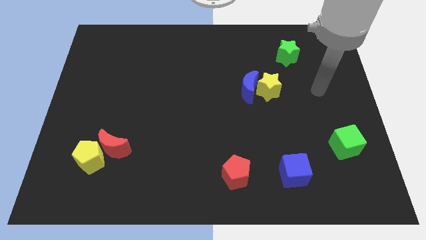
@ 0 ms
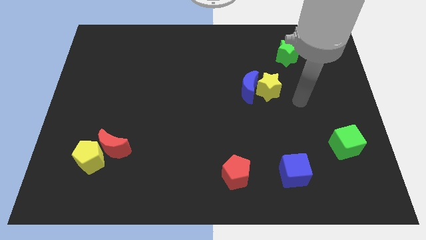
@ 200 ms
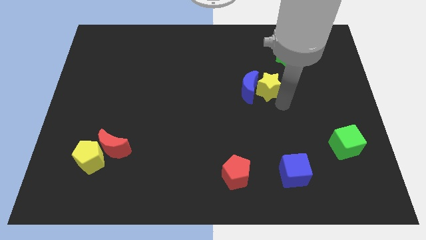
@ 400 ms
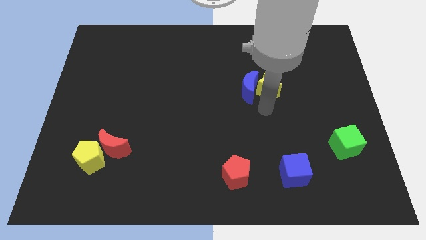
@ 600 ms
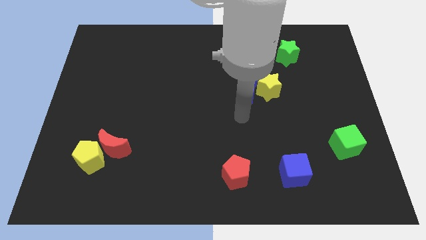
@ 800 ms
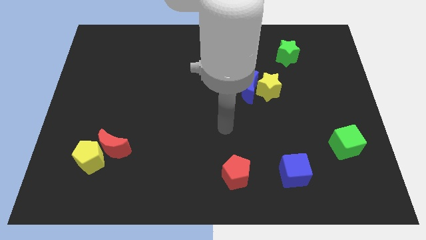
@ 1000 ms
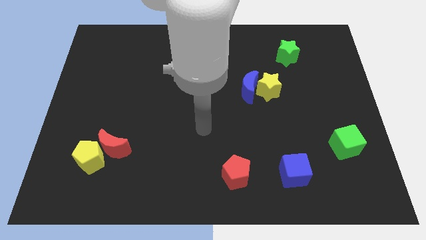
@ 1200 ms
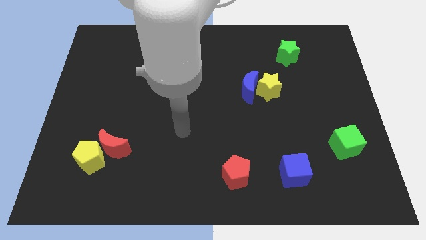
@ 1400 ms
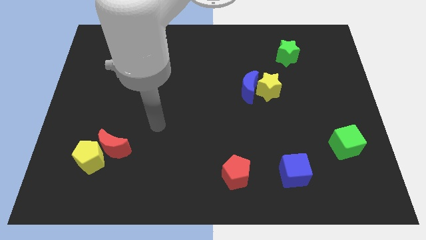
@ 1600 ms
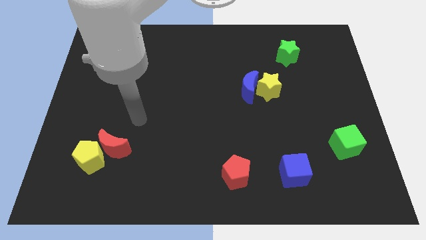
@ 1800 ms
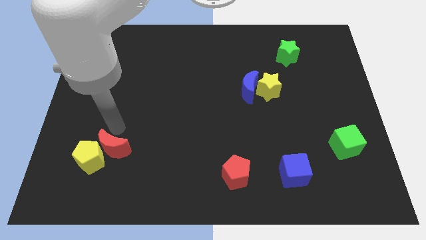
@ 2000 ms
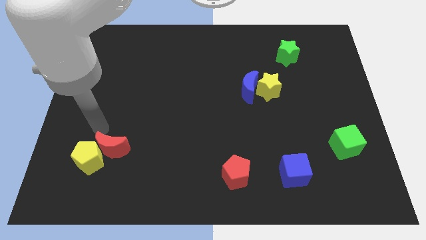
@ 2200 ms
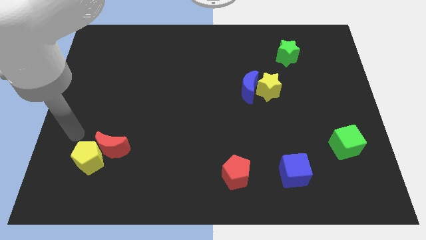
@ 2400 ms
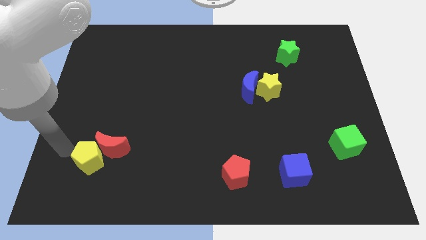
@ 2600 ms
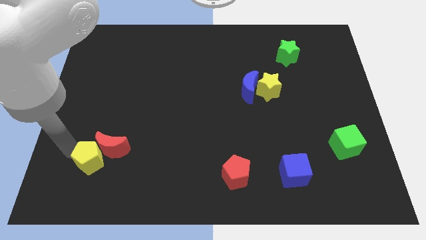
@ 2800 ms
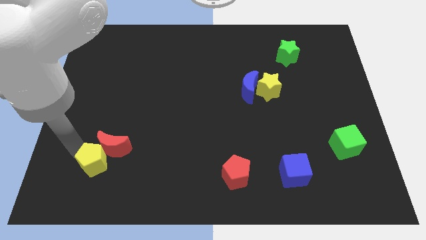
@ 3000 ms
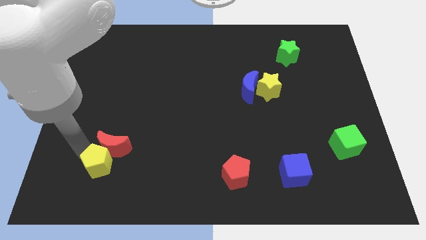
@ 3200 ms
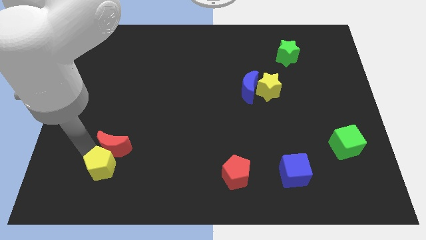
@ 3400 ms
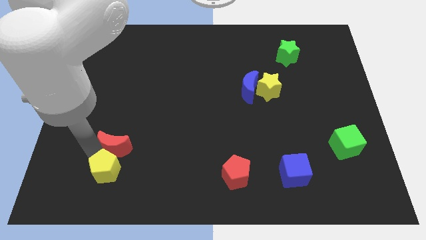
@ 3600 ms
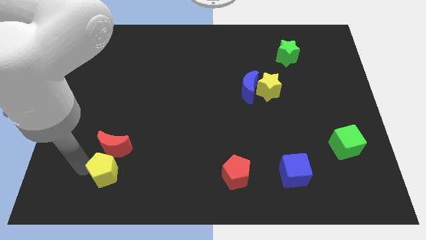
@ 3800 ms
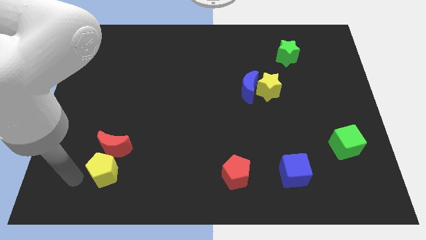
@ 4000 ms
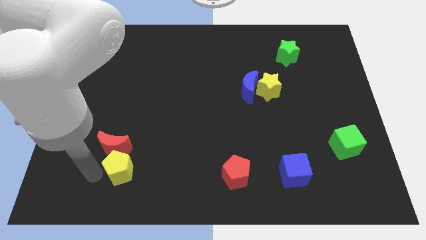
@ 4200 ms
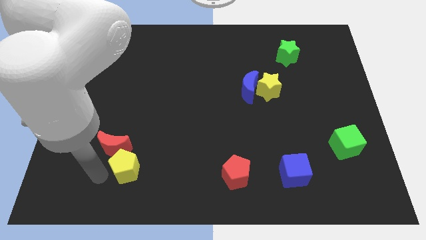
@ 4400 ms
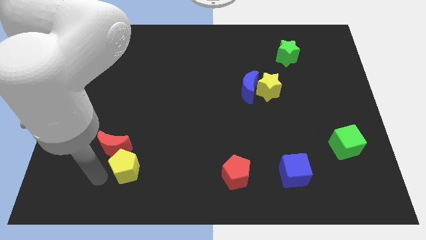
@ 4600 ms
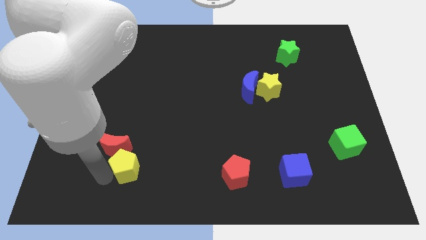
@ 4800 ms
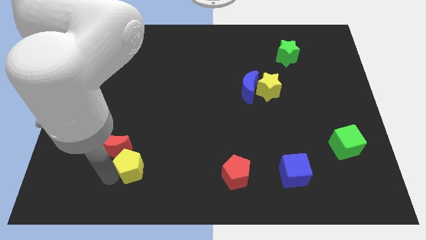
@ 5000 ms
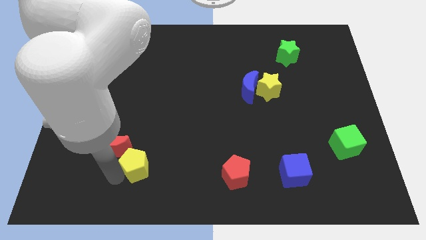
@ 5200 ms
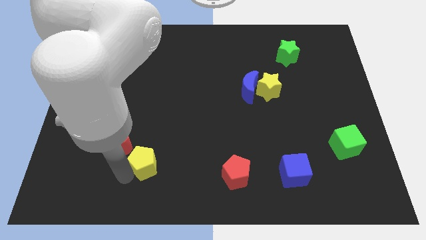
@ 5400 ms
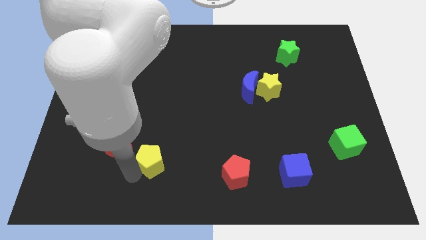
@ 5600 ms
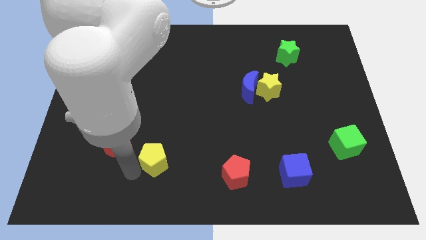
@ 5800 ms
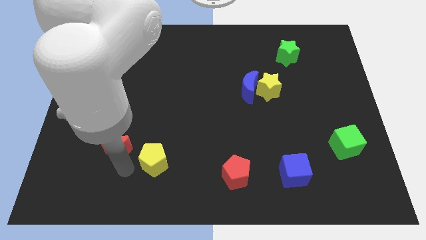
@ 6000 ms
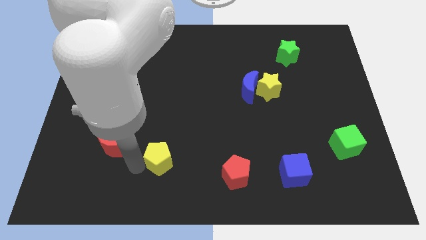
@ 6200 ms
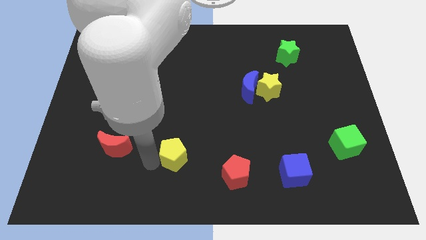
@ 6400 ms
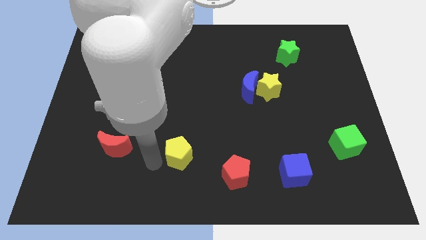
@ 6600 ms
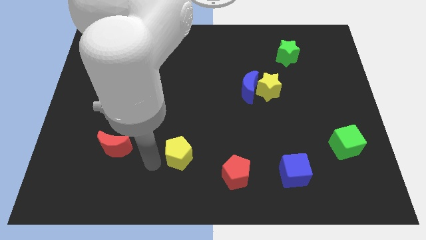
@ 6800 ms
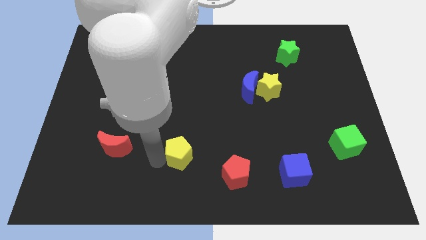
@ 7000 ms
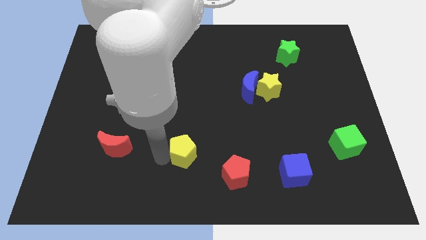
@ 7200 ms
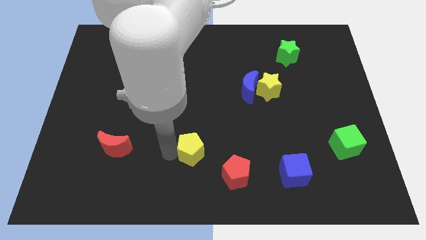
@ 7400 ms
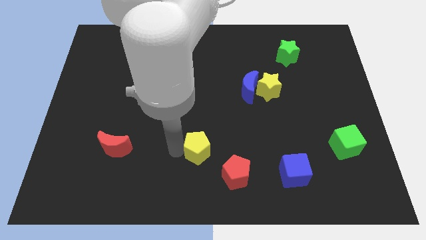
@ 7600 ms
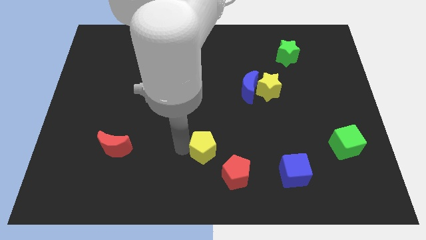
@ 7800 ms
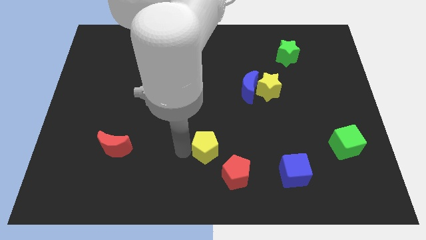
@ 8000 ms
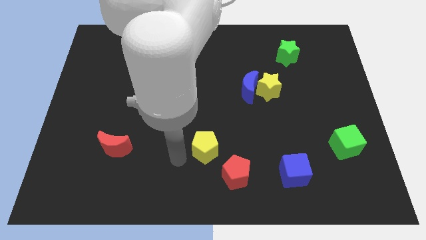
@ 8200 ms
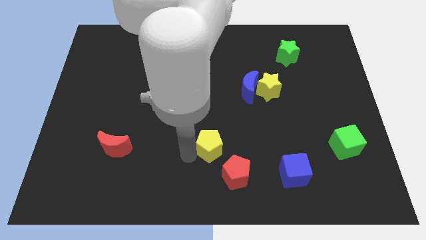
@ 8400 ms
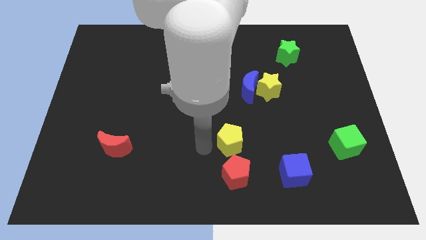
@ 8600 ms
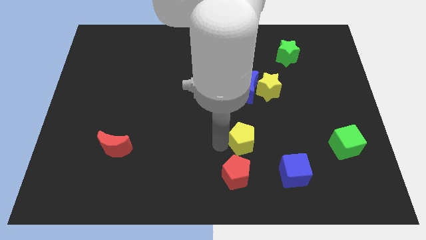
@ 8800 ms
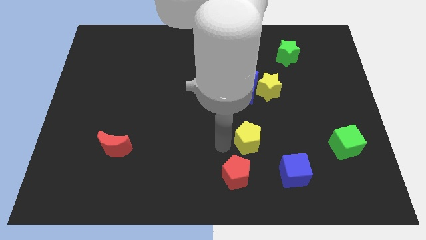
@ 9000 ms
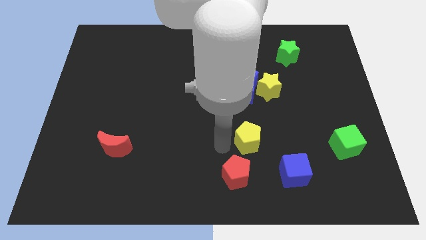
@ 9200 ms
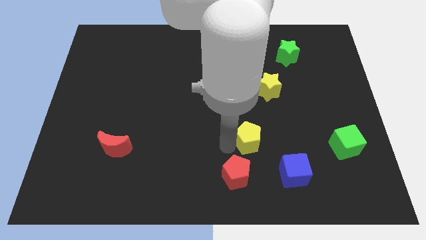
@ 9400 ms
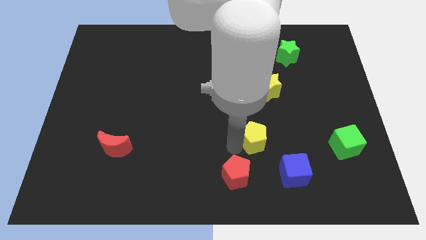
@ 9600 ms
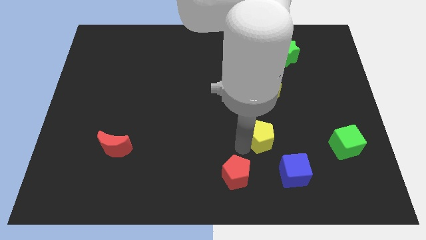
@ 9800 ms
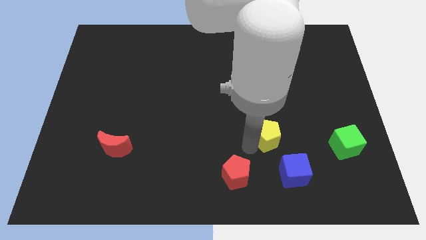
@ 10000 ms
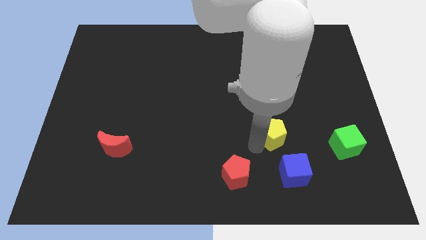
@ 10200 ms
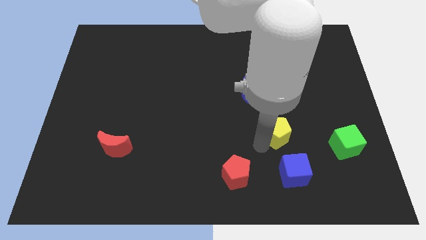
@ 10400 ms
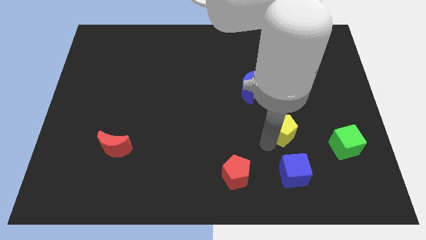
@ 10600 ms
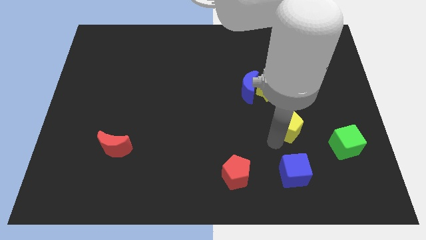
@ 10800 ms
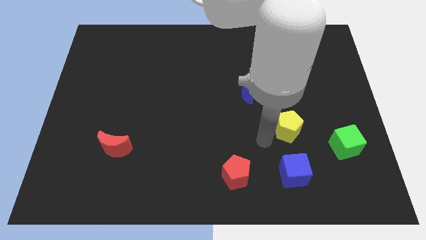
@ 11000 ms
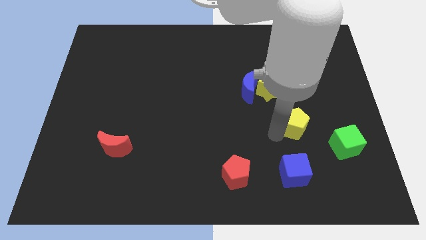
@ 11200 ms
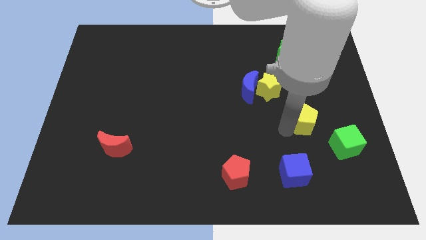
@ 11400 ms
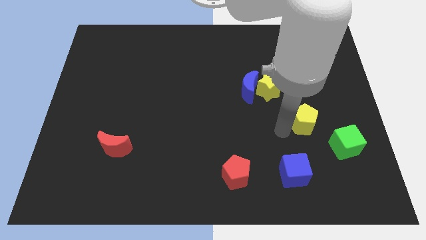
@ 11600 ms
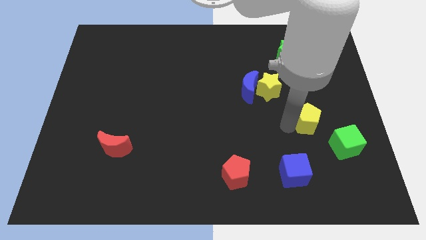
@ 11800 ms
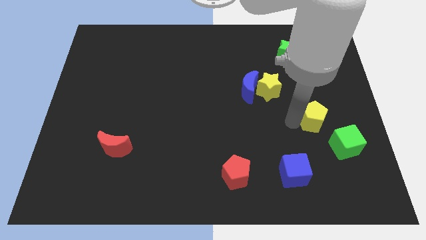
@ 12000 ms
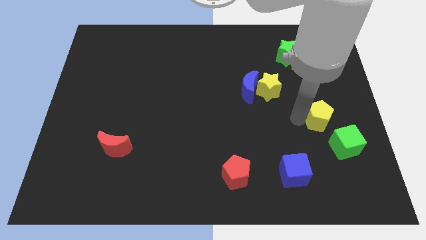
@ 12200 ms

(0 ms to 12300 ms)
move the yellow pentagon to the top side of the green cube
